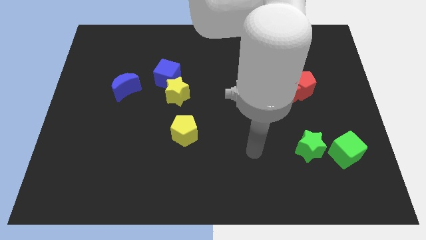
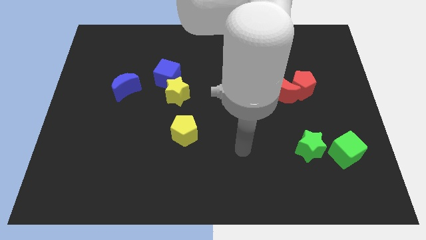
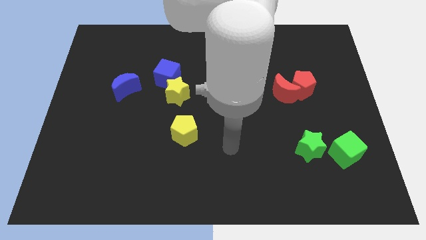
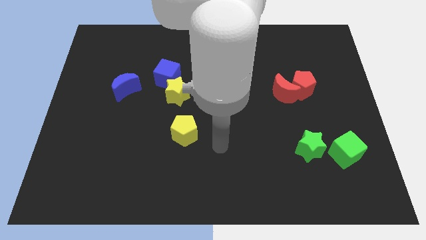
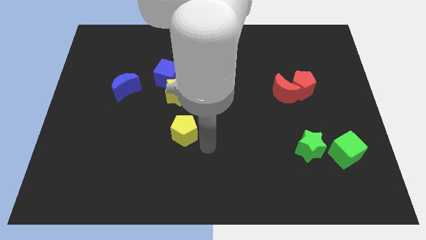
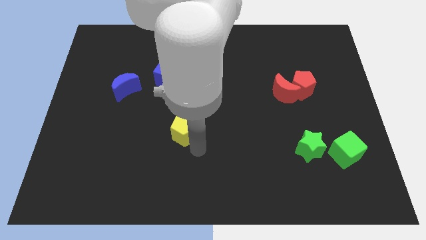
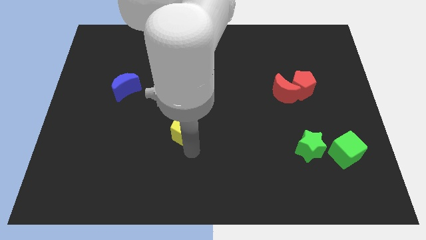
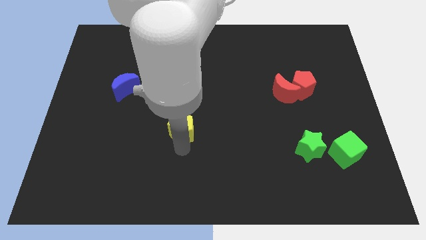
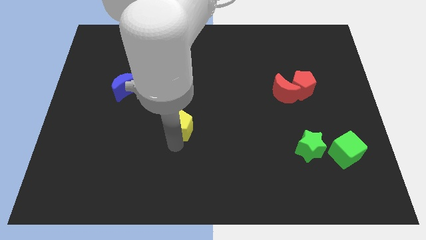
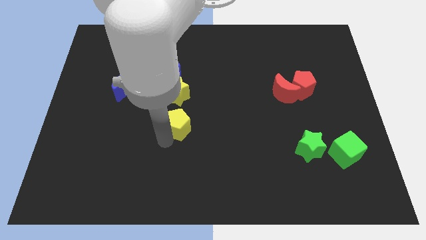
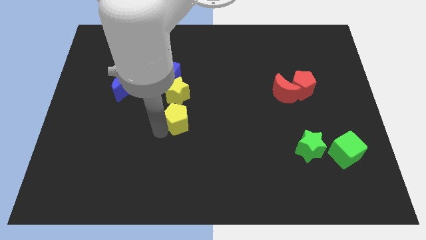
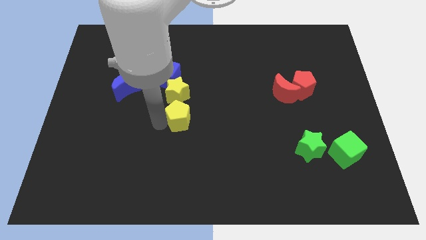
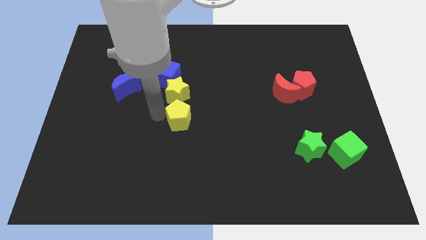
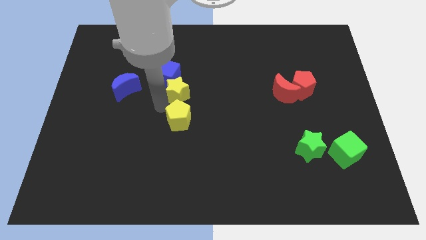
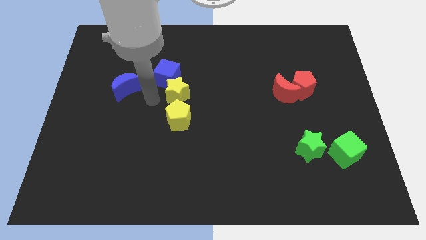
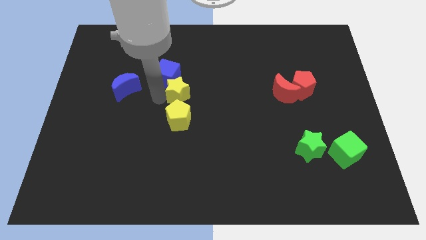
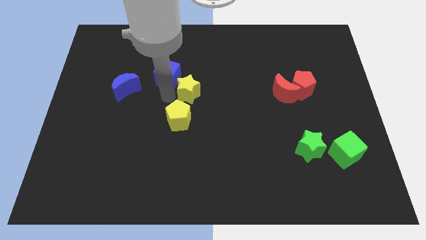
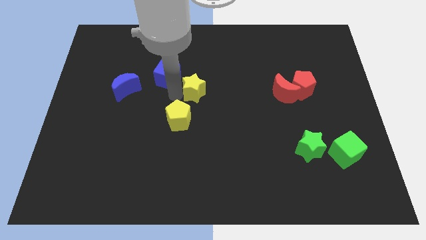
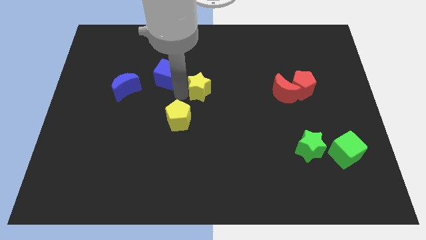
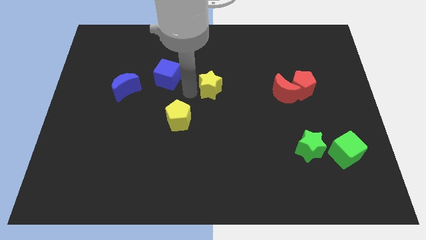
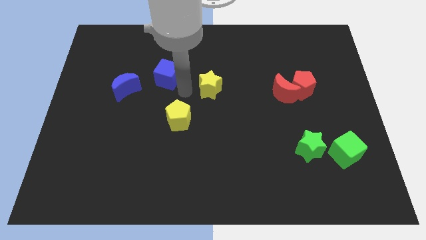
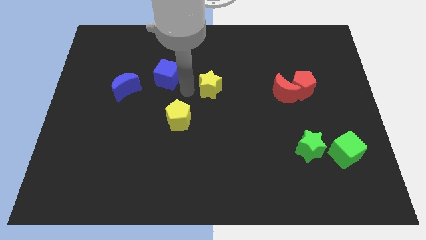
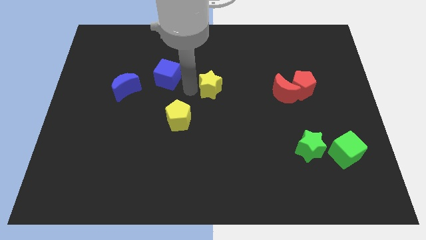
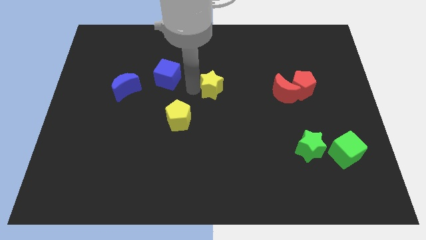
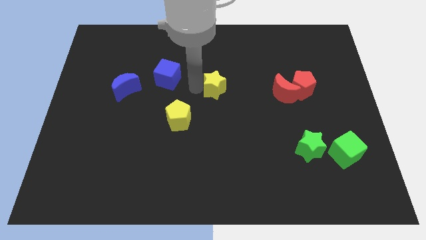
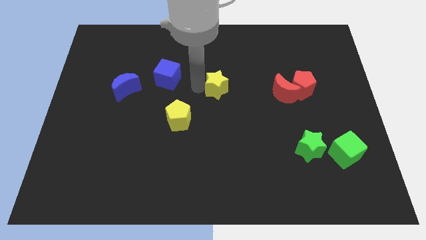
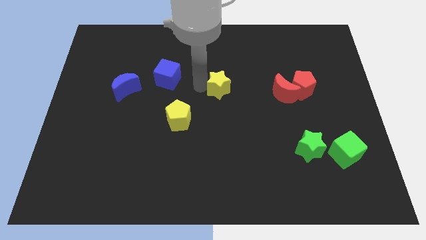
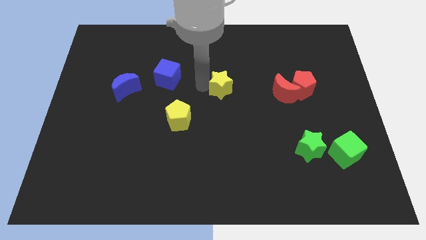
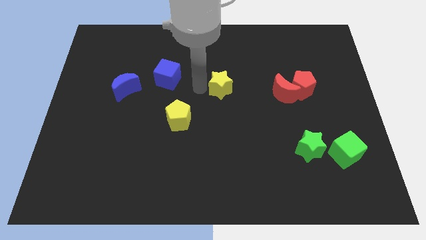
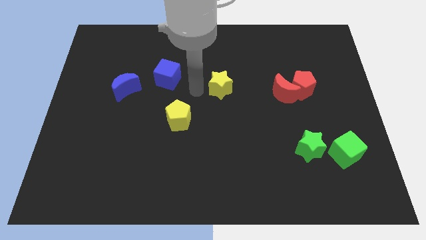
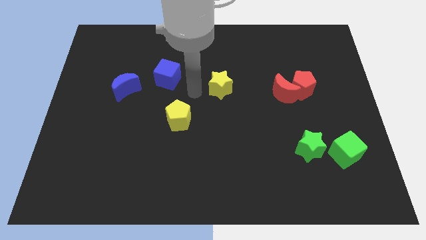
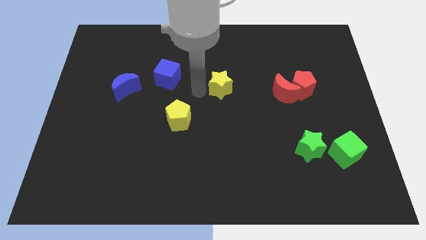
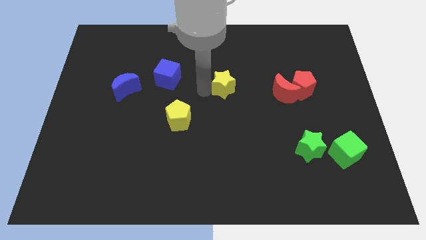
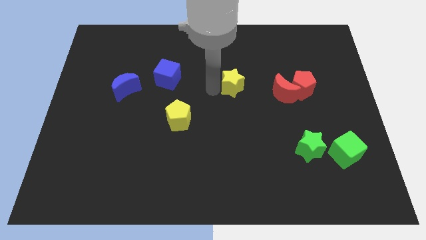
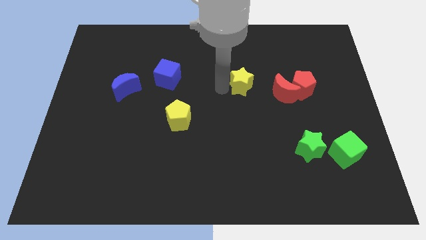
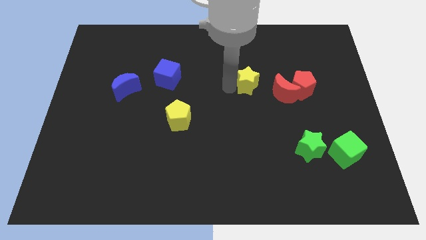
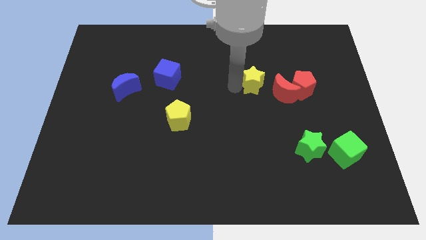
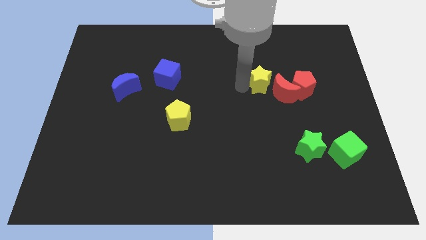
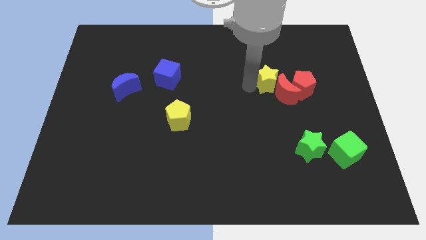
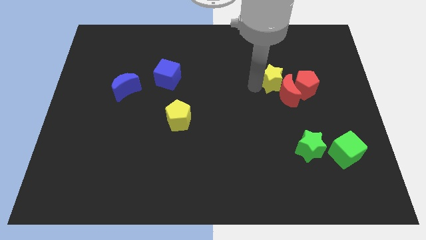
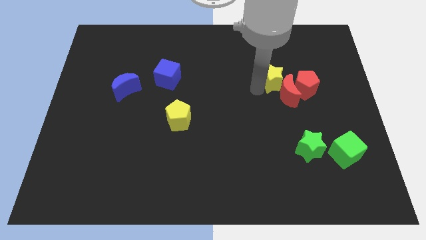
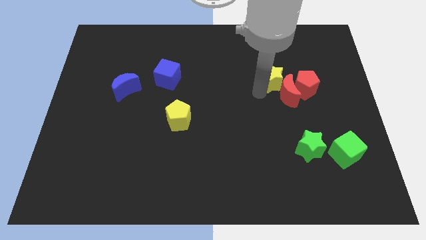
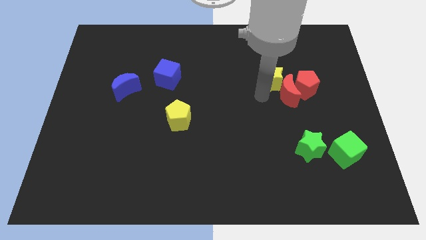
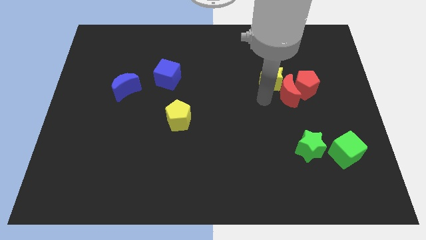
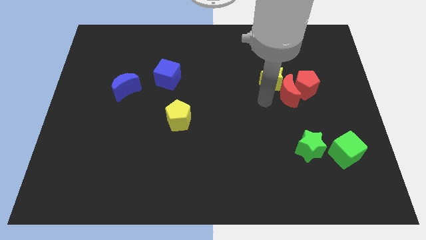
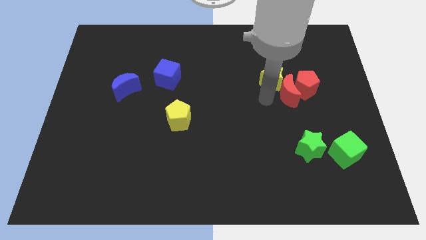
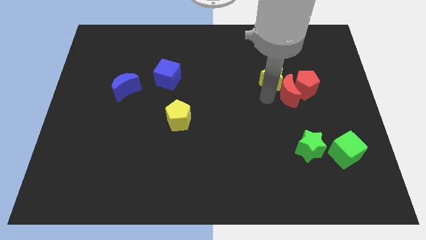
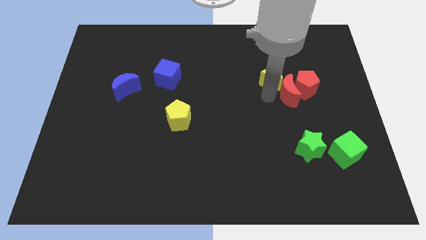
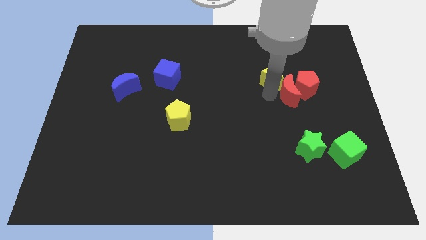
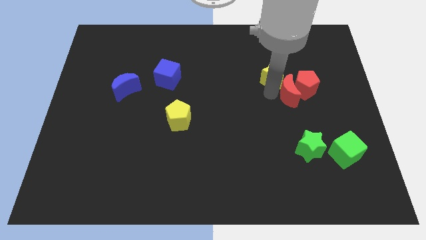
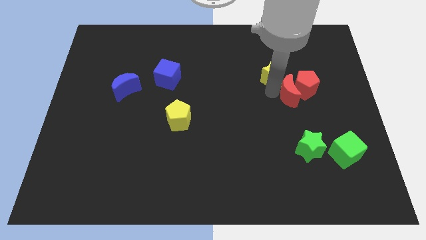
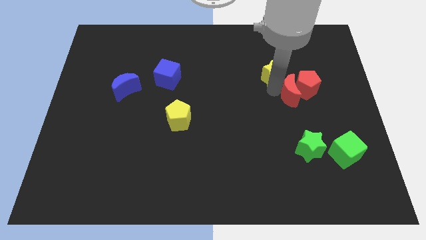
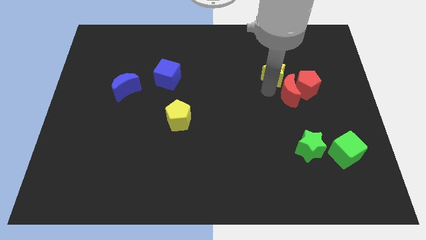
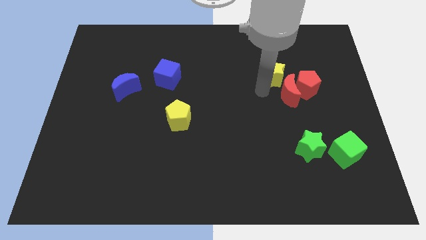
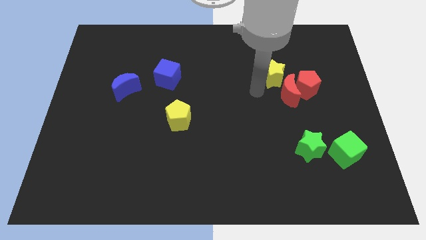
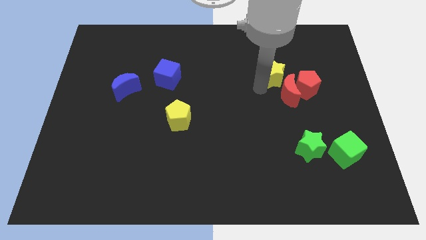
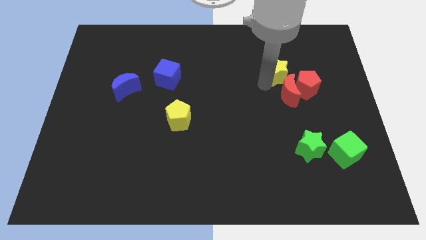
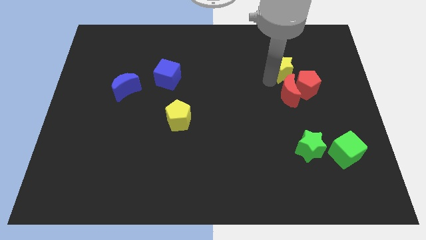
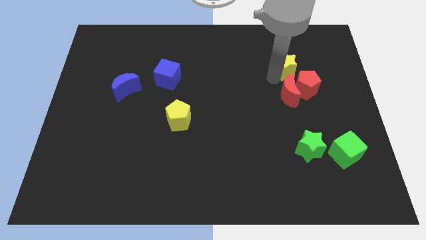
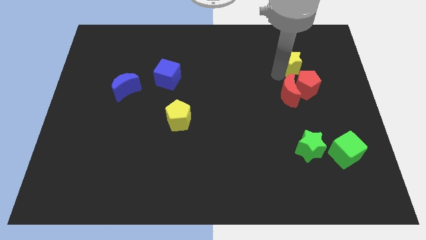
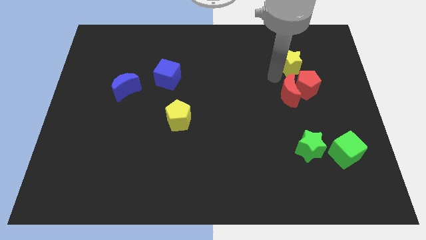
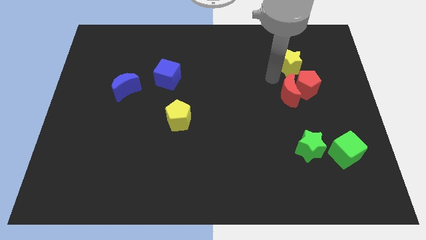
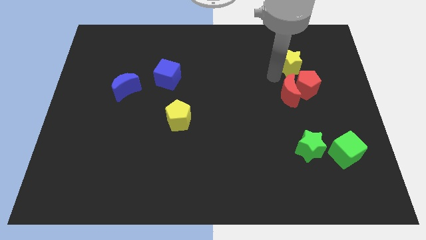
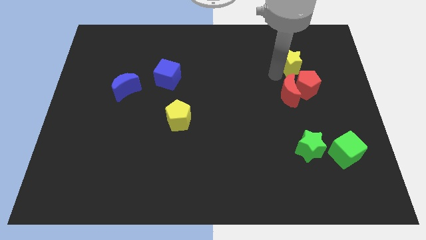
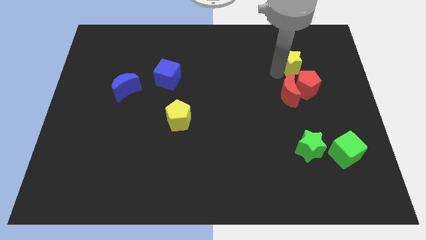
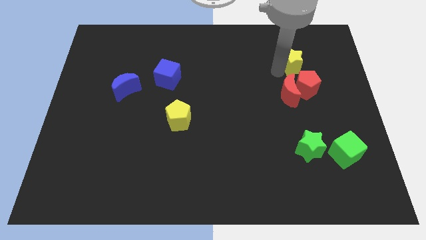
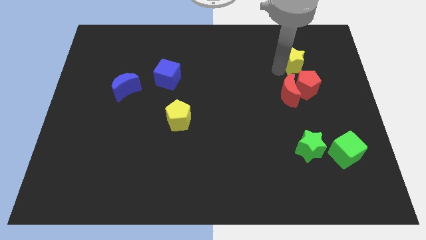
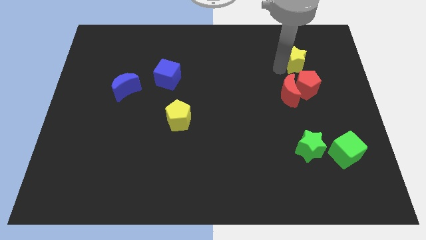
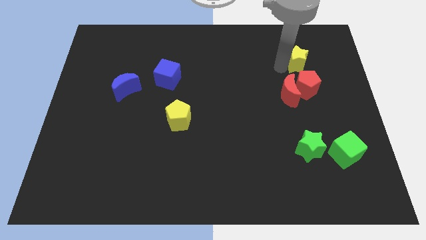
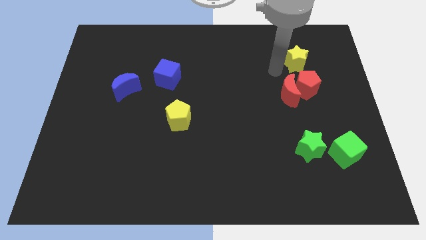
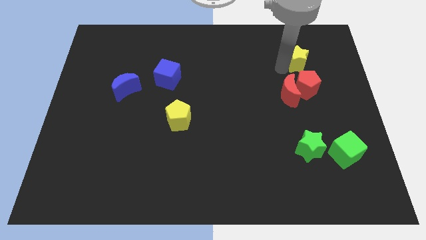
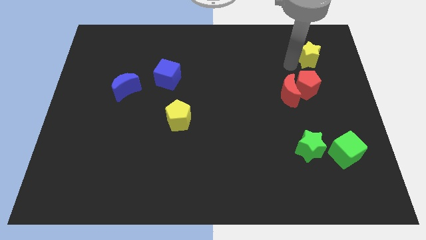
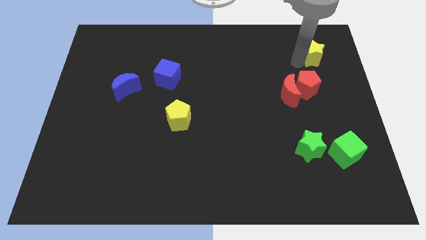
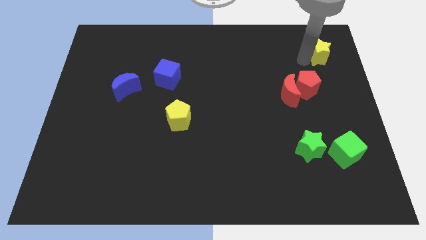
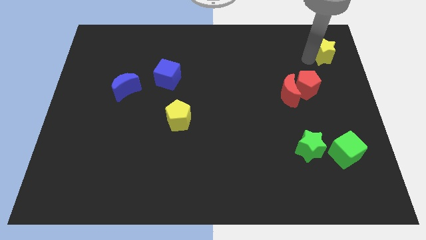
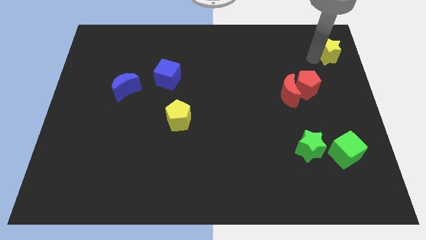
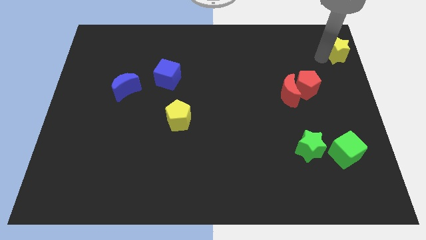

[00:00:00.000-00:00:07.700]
move the yellow star to the top right of the board
